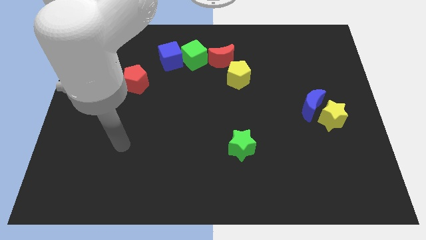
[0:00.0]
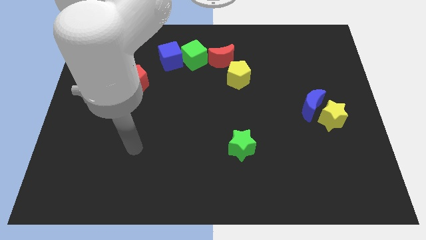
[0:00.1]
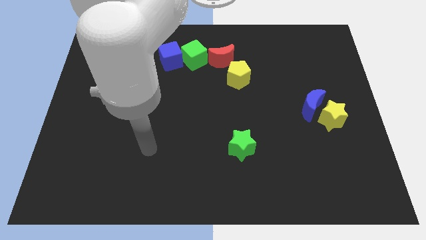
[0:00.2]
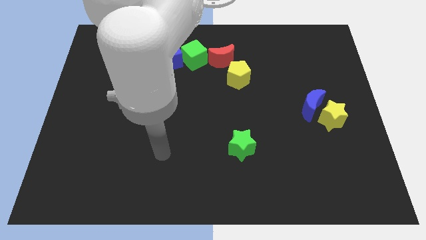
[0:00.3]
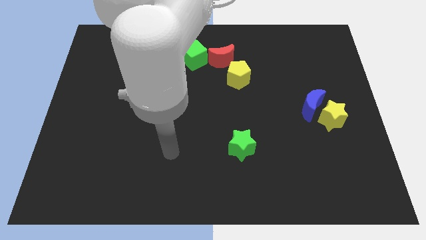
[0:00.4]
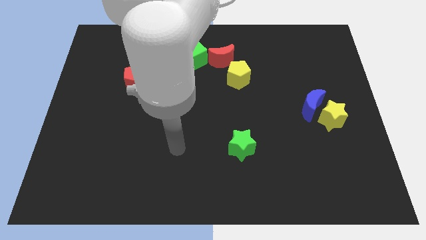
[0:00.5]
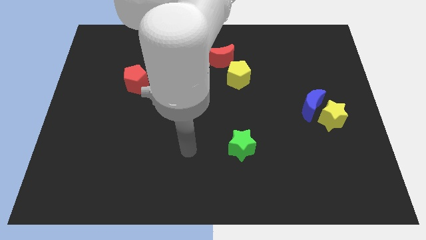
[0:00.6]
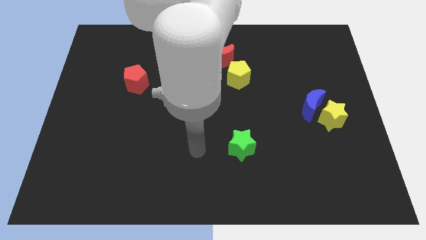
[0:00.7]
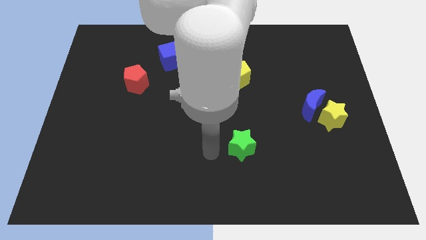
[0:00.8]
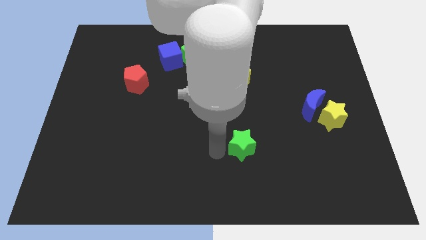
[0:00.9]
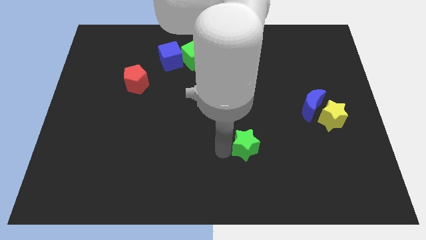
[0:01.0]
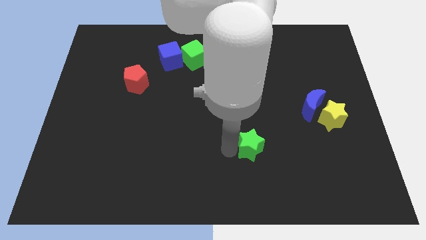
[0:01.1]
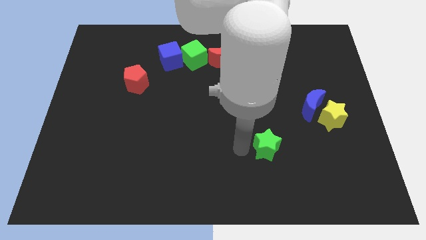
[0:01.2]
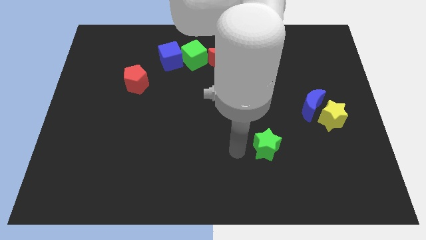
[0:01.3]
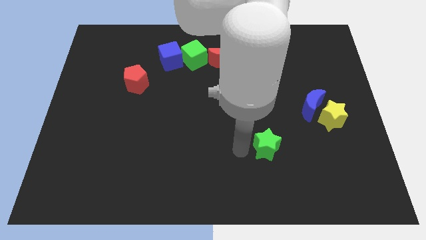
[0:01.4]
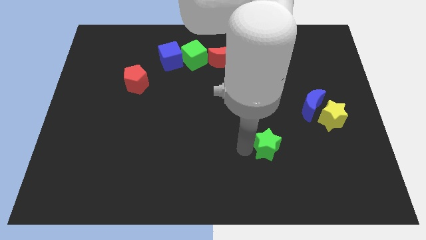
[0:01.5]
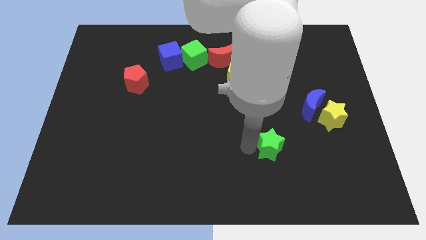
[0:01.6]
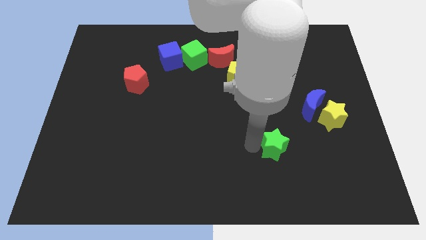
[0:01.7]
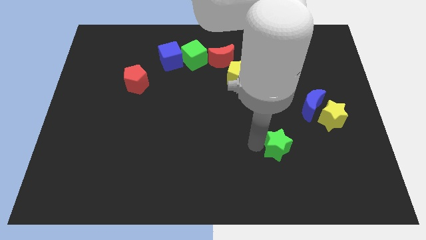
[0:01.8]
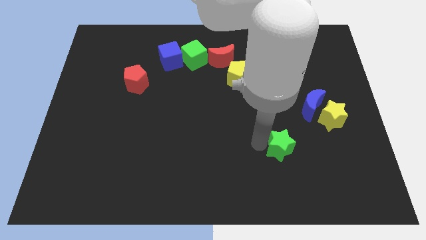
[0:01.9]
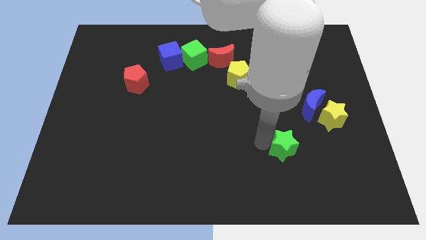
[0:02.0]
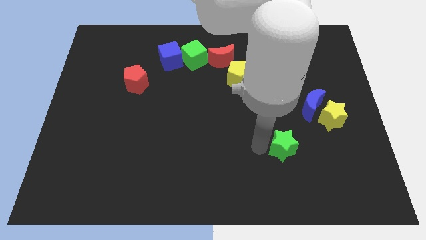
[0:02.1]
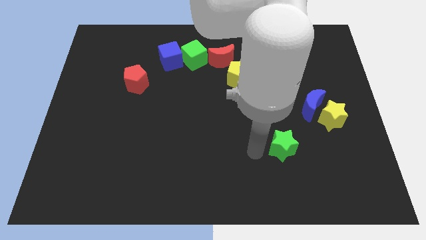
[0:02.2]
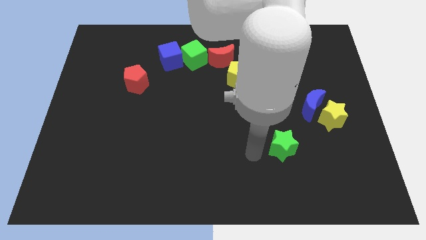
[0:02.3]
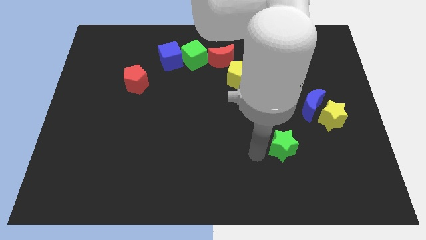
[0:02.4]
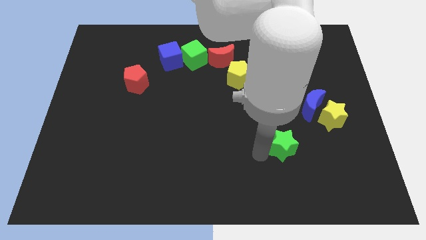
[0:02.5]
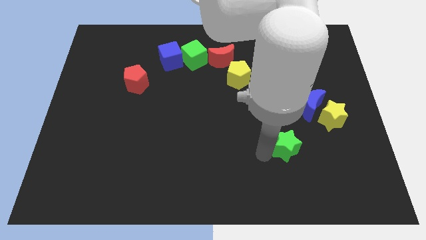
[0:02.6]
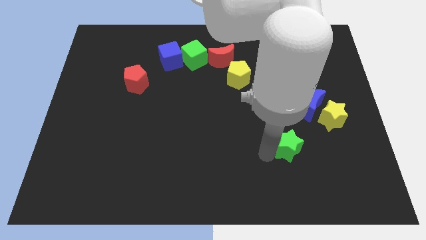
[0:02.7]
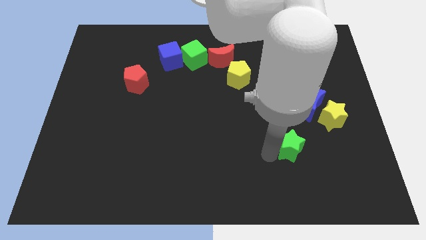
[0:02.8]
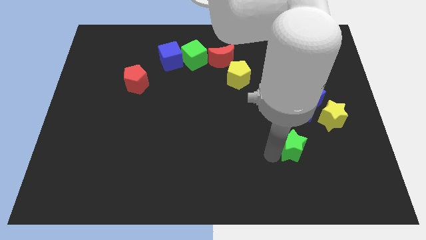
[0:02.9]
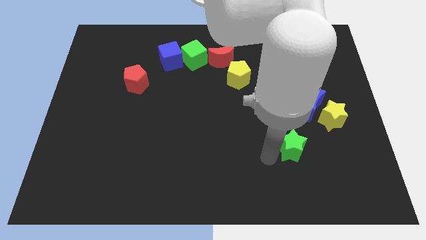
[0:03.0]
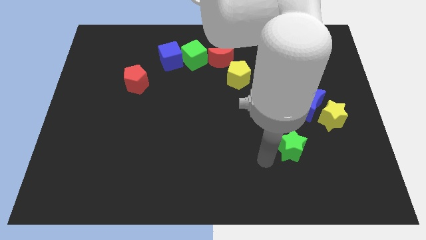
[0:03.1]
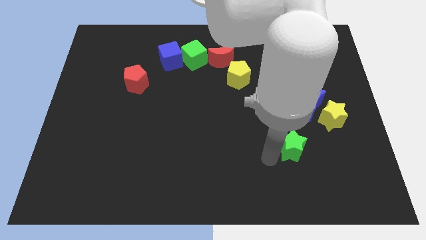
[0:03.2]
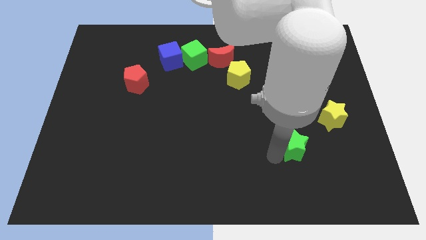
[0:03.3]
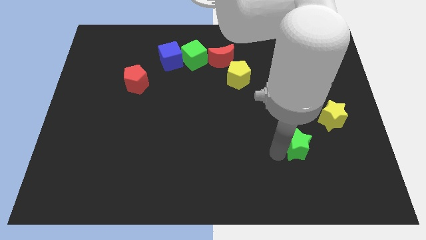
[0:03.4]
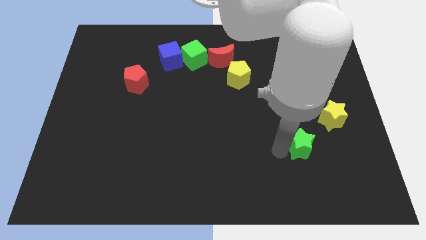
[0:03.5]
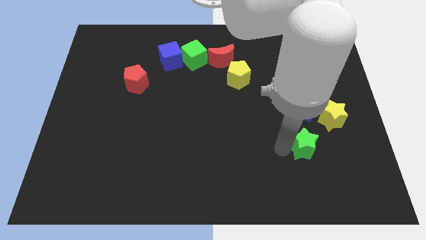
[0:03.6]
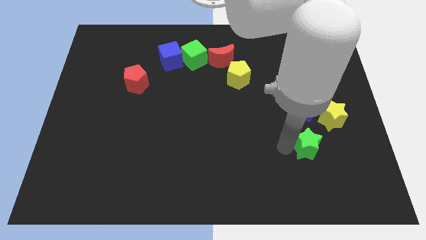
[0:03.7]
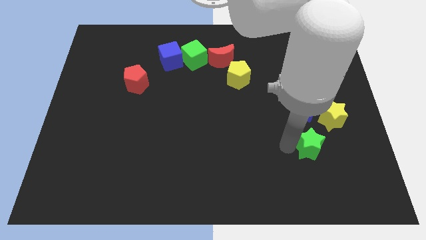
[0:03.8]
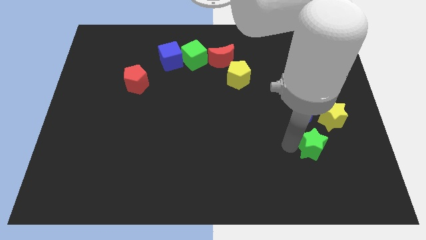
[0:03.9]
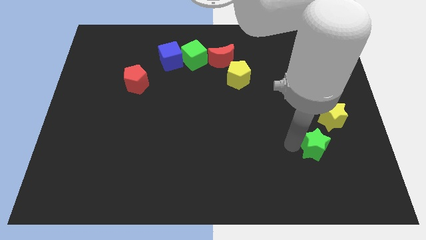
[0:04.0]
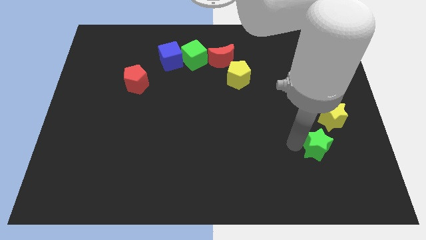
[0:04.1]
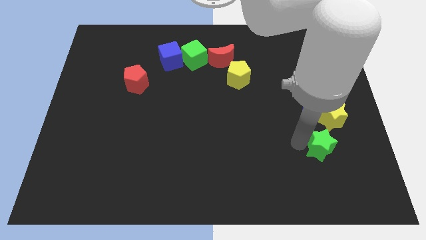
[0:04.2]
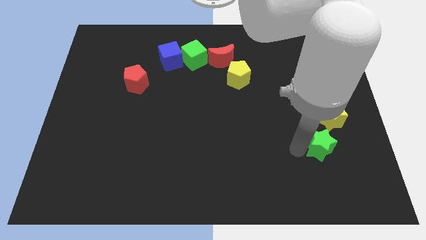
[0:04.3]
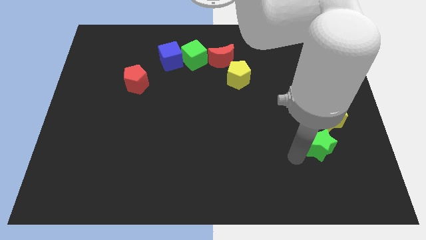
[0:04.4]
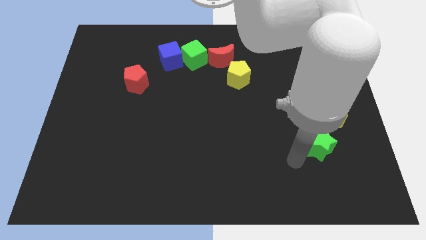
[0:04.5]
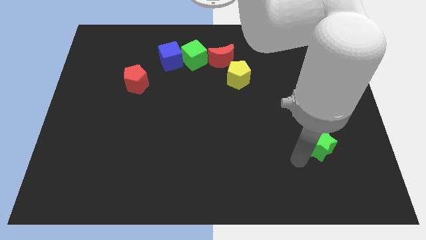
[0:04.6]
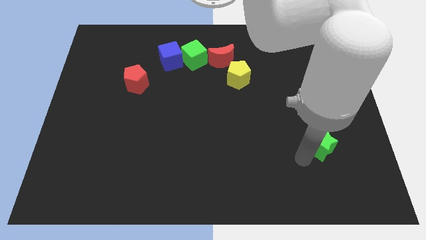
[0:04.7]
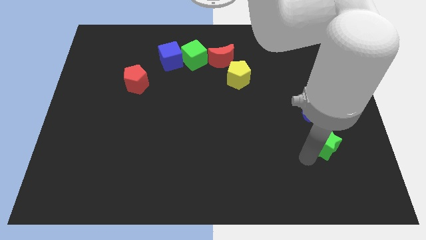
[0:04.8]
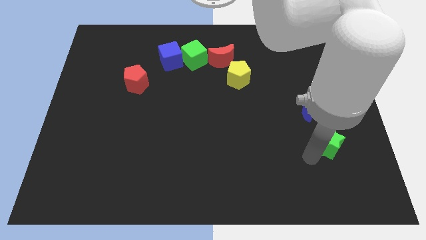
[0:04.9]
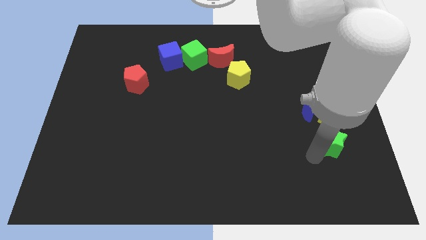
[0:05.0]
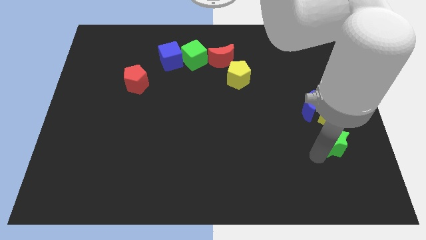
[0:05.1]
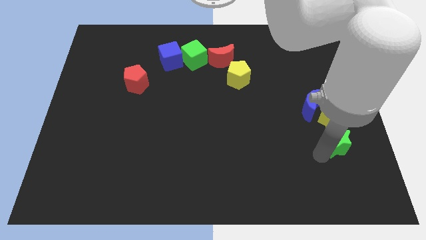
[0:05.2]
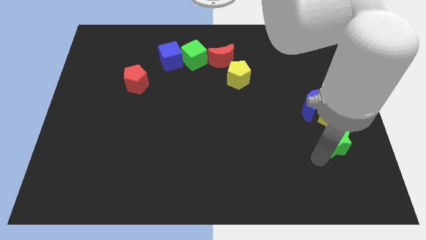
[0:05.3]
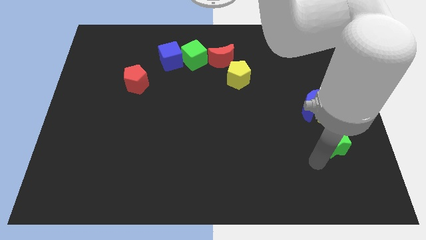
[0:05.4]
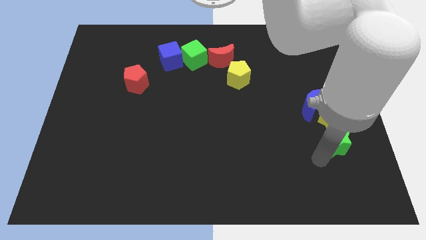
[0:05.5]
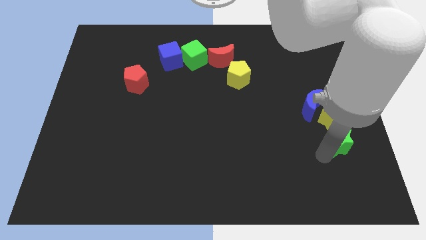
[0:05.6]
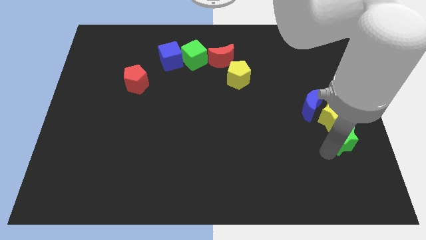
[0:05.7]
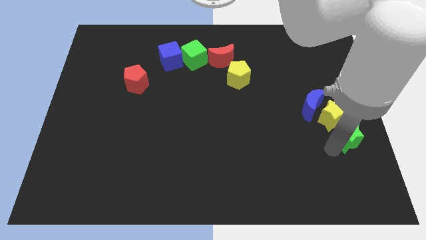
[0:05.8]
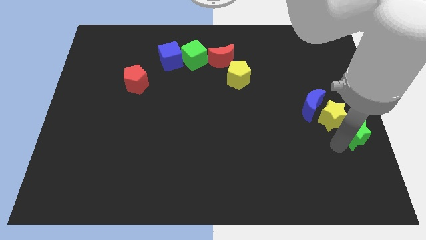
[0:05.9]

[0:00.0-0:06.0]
put the green star to the right side of the board
